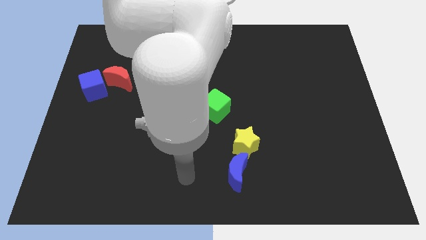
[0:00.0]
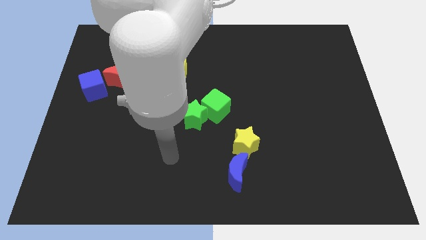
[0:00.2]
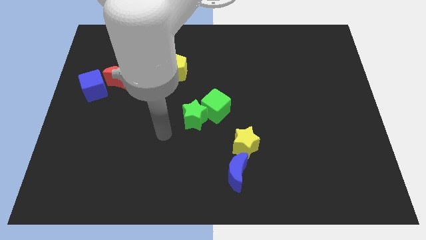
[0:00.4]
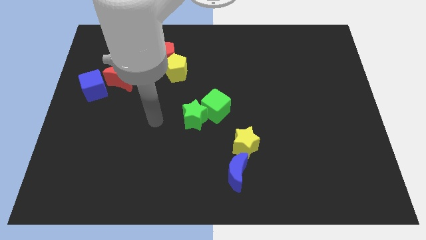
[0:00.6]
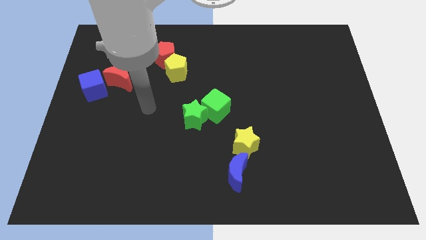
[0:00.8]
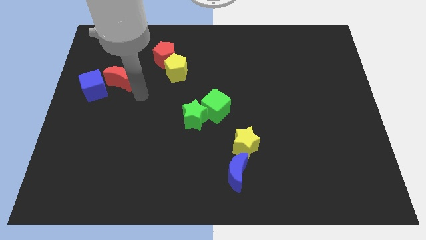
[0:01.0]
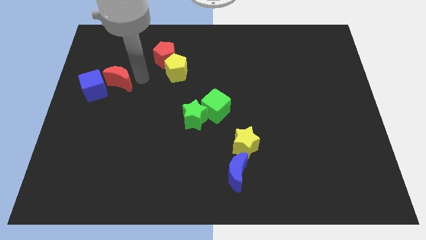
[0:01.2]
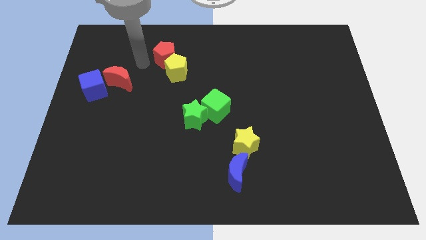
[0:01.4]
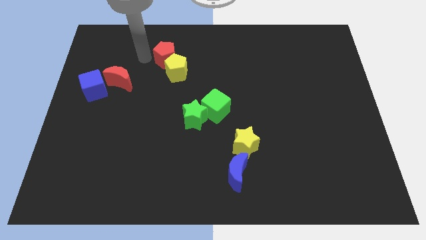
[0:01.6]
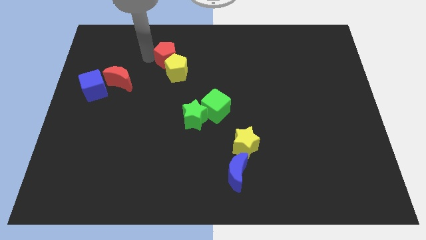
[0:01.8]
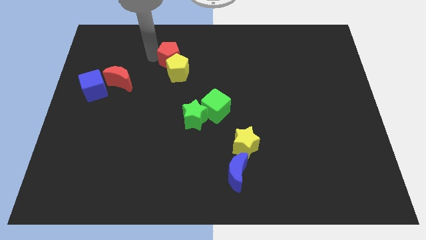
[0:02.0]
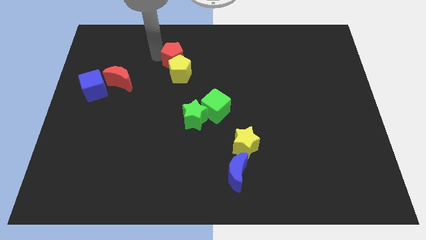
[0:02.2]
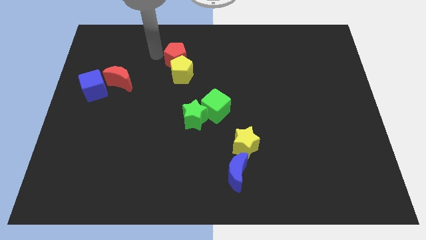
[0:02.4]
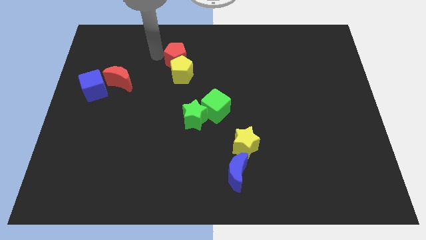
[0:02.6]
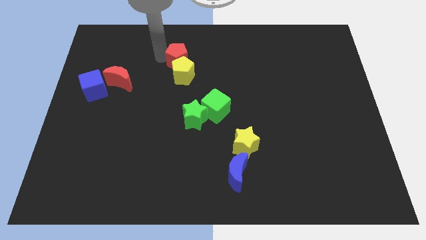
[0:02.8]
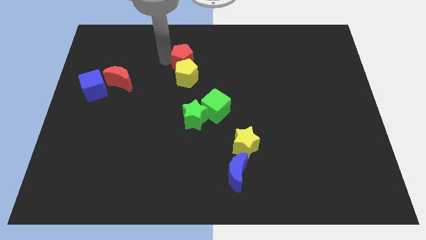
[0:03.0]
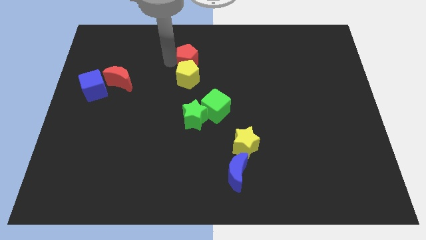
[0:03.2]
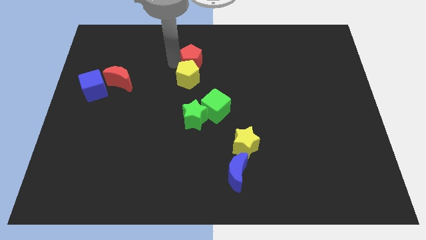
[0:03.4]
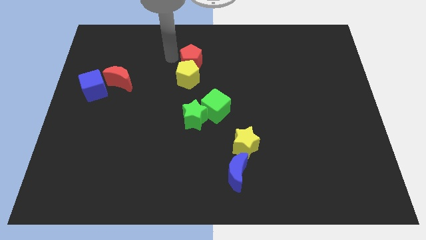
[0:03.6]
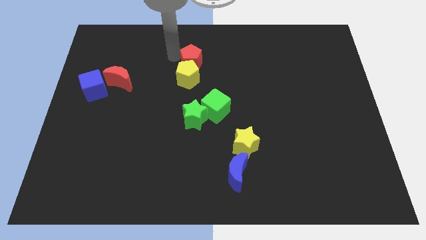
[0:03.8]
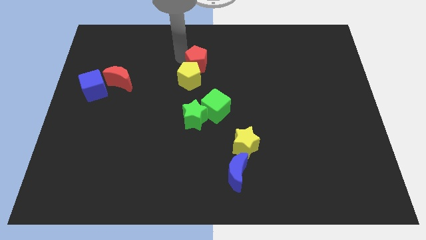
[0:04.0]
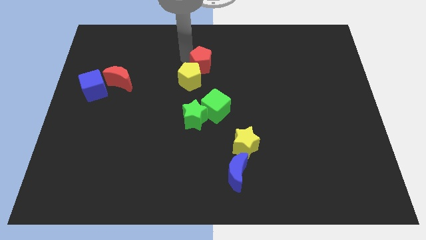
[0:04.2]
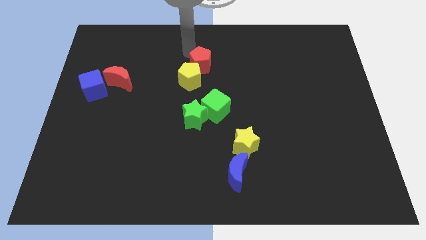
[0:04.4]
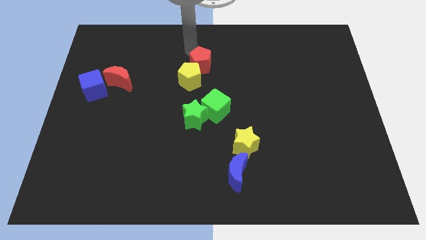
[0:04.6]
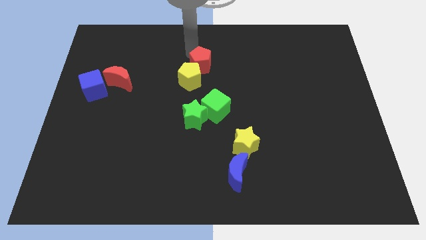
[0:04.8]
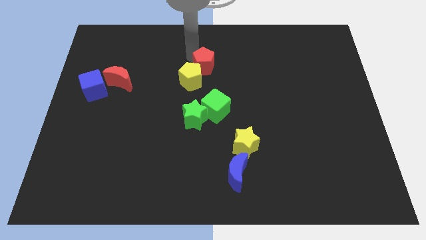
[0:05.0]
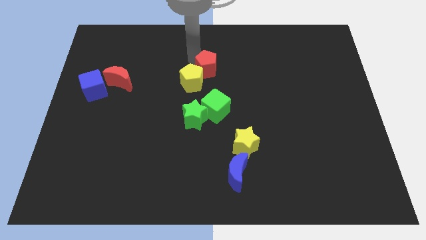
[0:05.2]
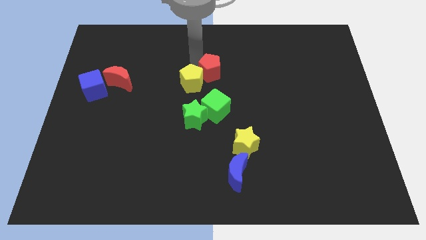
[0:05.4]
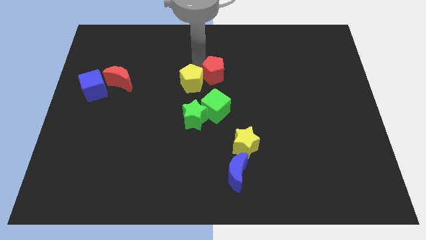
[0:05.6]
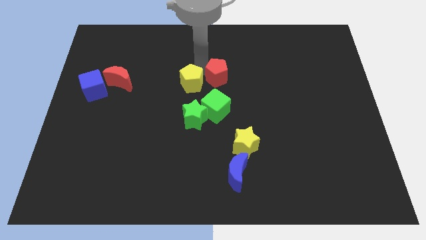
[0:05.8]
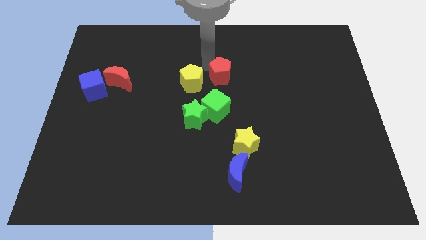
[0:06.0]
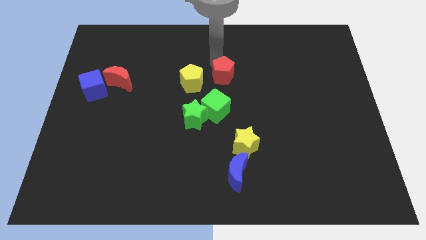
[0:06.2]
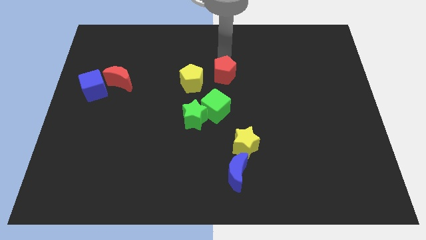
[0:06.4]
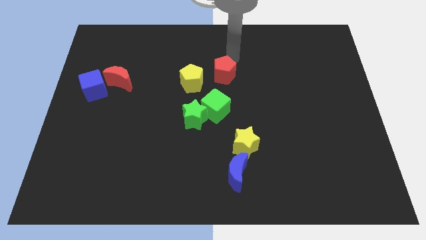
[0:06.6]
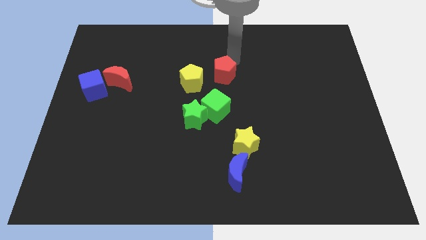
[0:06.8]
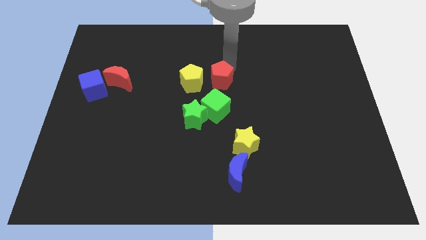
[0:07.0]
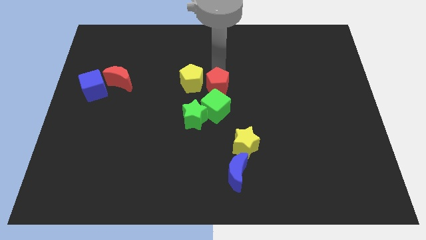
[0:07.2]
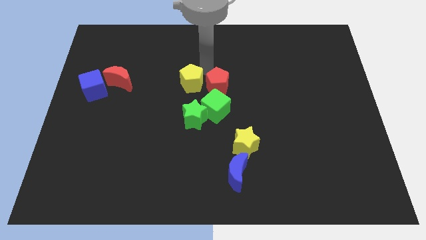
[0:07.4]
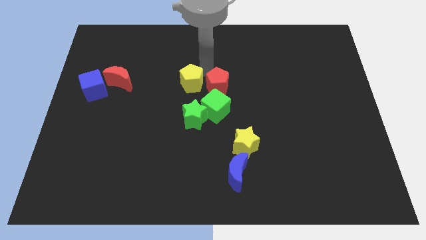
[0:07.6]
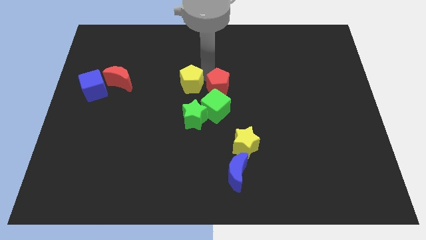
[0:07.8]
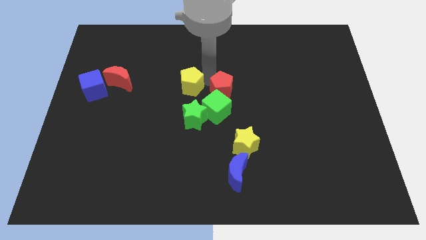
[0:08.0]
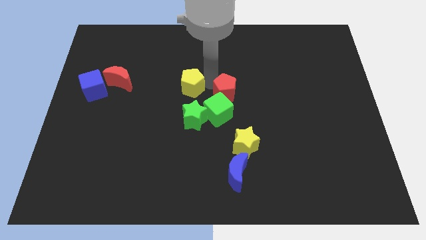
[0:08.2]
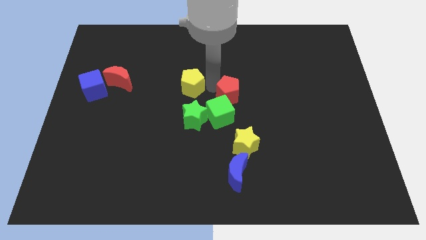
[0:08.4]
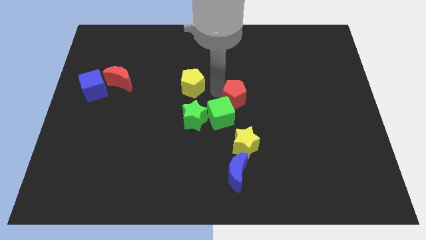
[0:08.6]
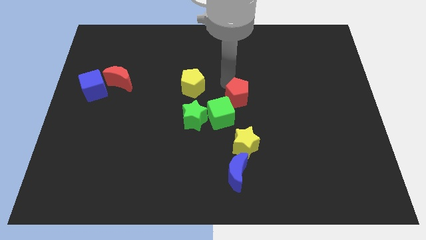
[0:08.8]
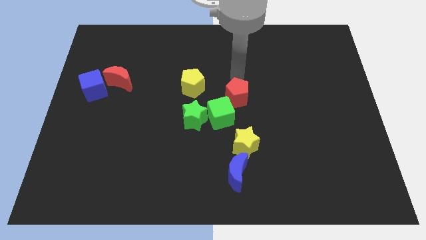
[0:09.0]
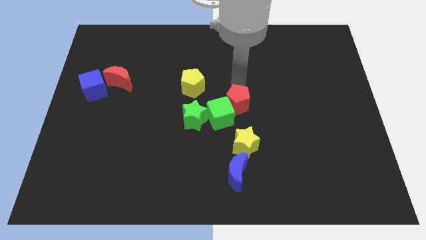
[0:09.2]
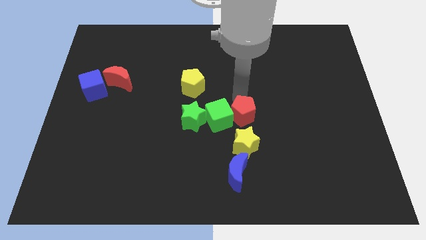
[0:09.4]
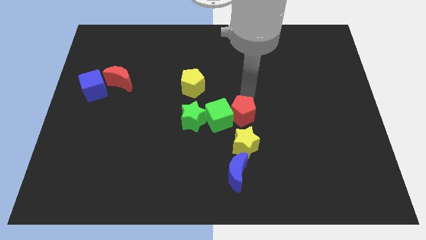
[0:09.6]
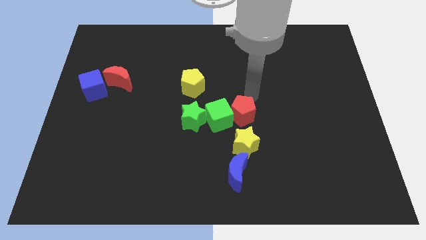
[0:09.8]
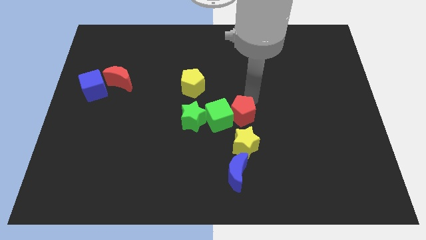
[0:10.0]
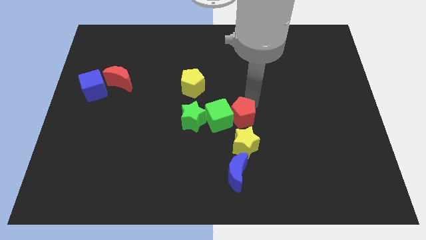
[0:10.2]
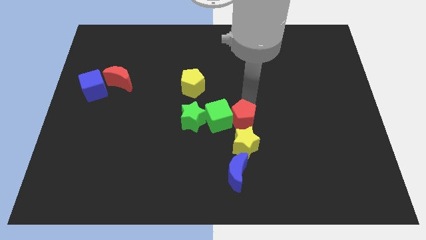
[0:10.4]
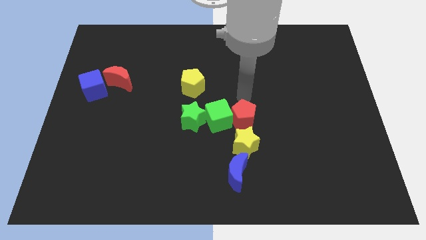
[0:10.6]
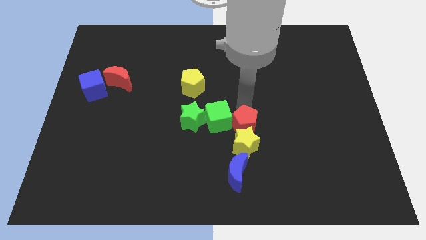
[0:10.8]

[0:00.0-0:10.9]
push the red pentagon to the yellow star

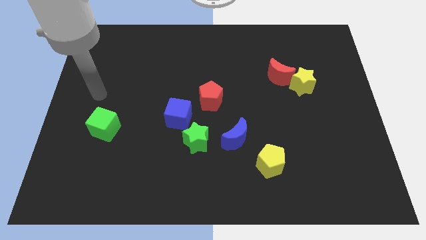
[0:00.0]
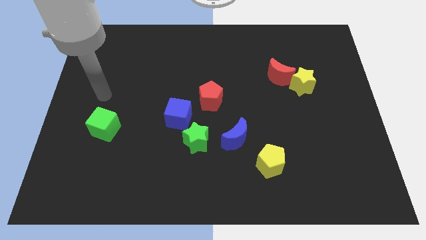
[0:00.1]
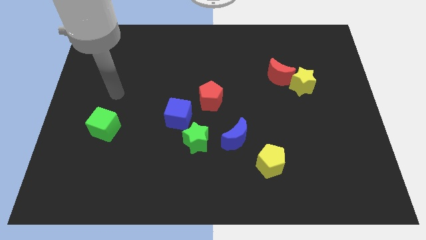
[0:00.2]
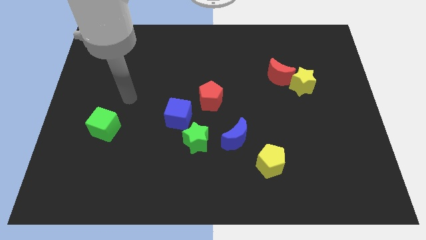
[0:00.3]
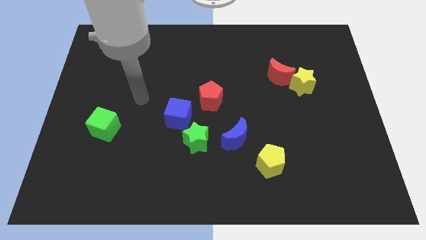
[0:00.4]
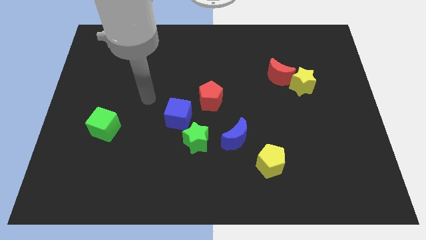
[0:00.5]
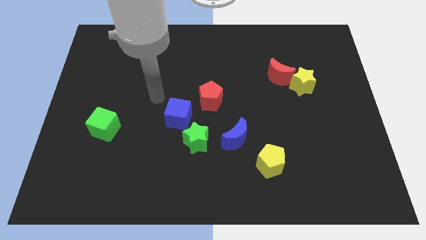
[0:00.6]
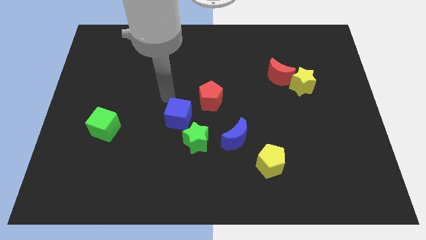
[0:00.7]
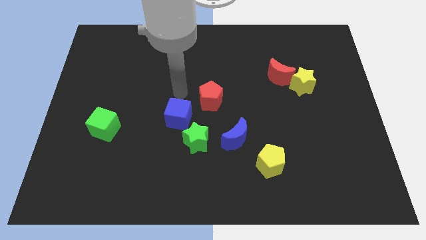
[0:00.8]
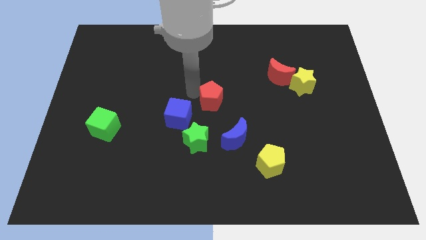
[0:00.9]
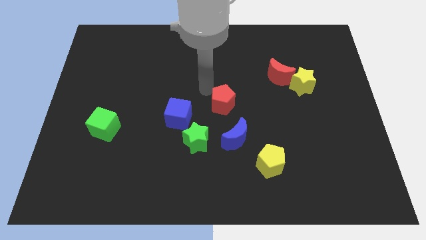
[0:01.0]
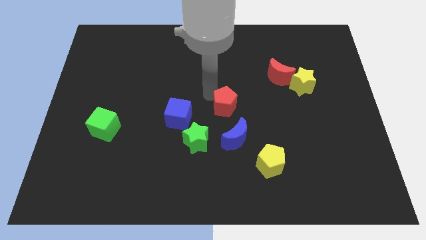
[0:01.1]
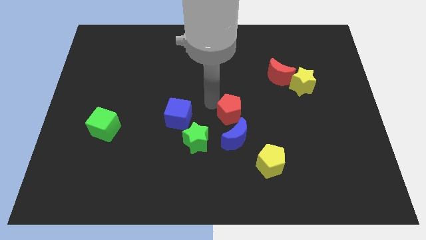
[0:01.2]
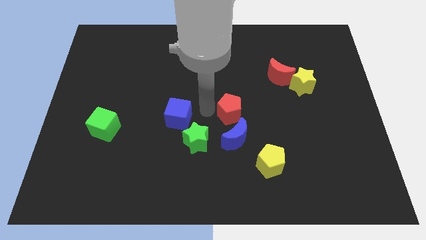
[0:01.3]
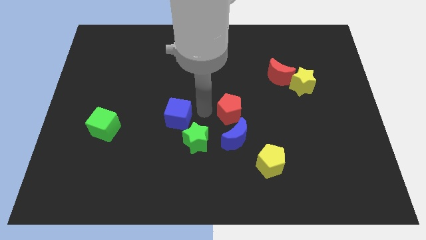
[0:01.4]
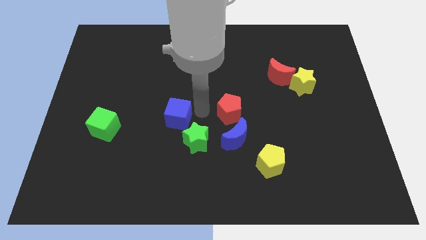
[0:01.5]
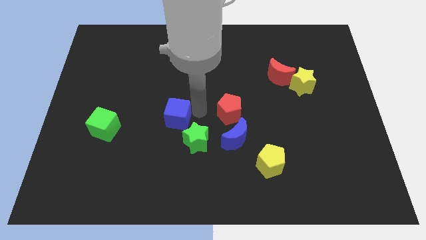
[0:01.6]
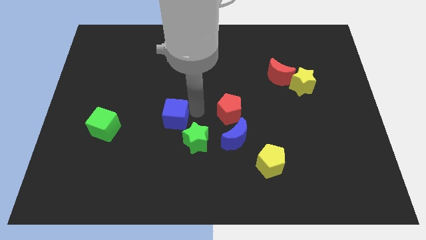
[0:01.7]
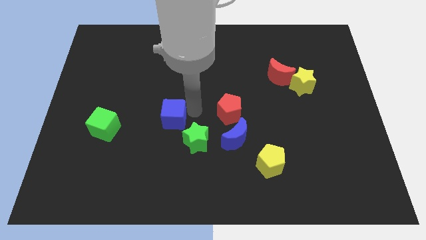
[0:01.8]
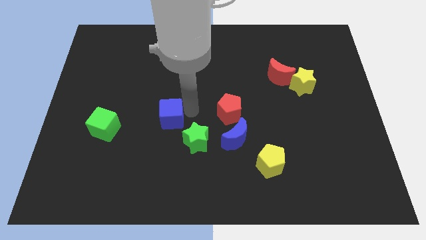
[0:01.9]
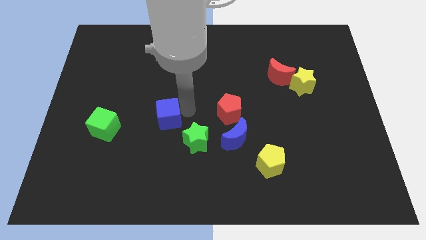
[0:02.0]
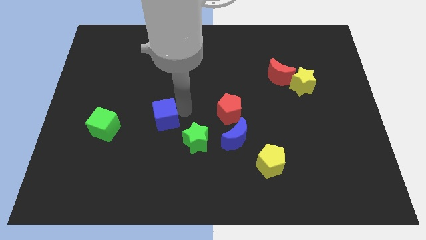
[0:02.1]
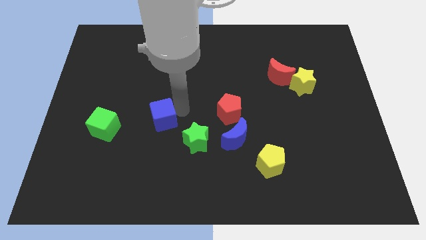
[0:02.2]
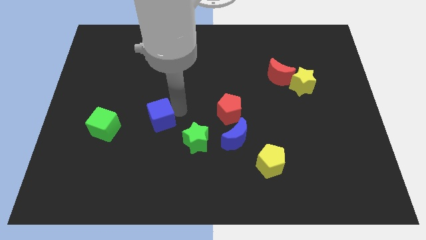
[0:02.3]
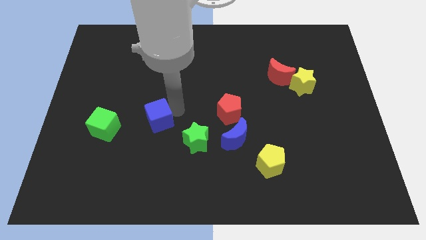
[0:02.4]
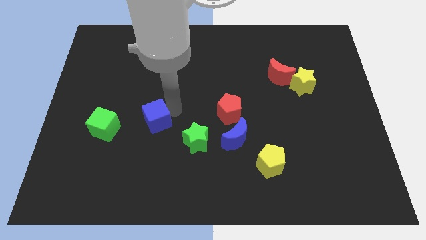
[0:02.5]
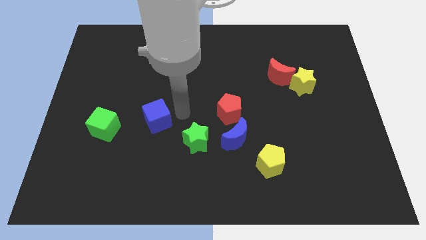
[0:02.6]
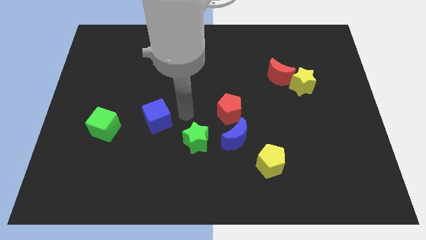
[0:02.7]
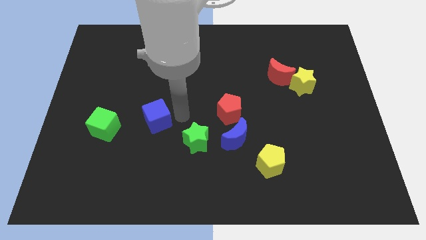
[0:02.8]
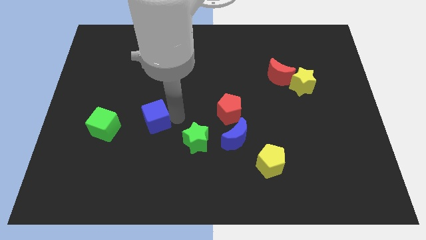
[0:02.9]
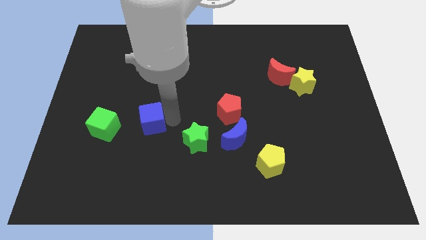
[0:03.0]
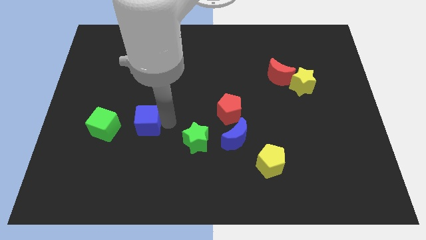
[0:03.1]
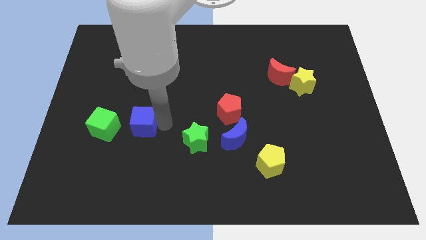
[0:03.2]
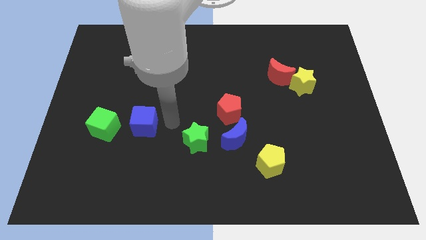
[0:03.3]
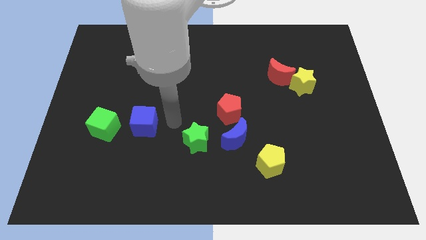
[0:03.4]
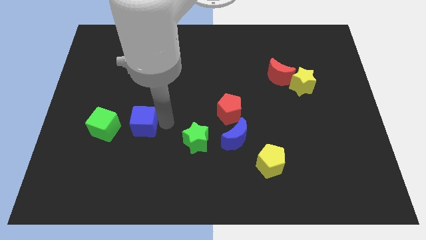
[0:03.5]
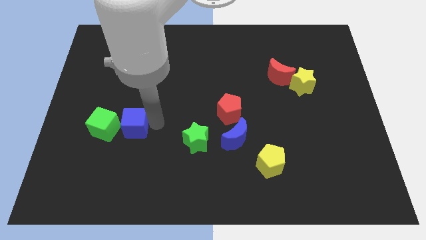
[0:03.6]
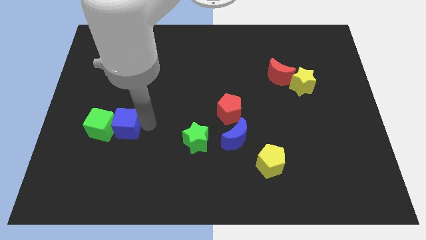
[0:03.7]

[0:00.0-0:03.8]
slide the blue cube next to the green cube
